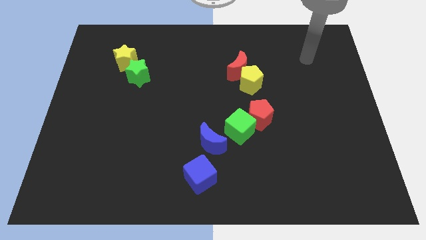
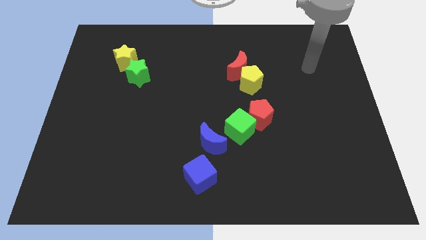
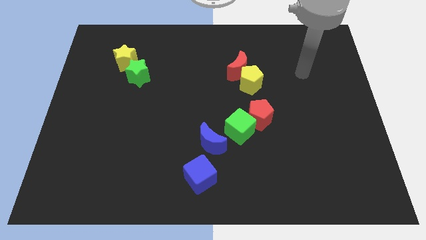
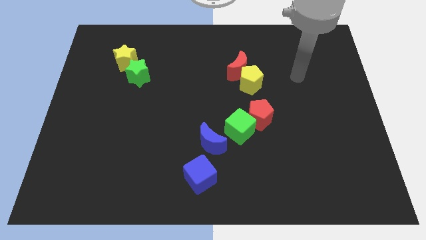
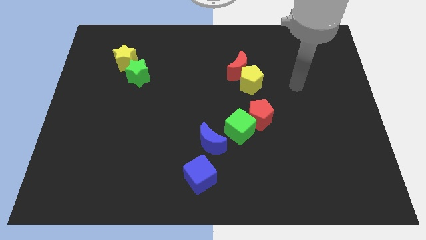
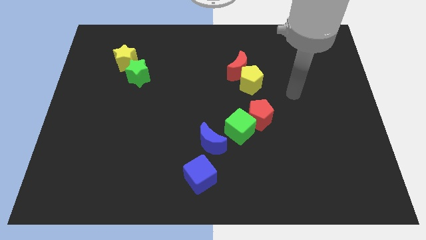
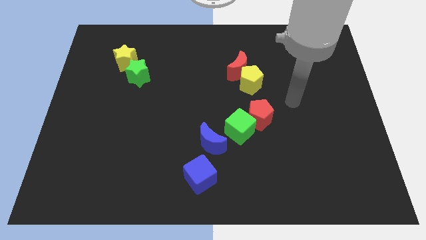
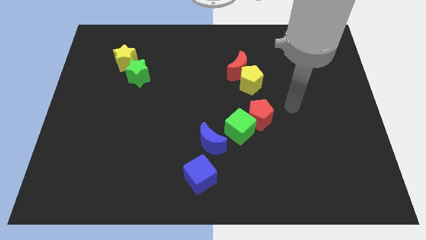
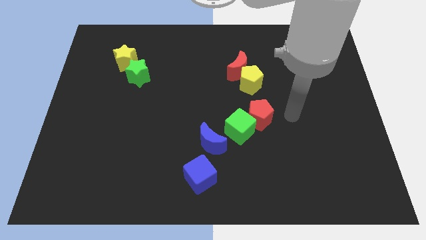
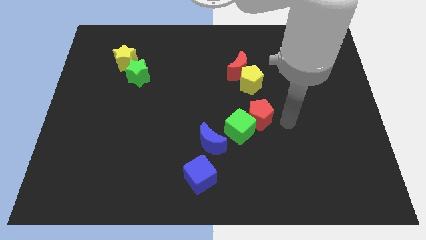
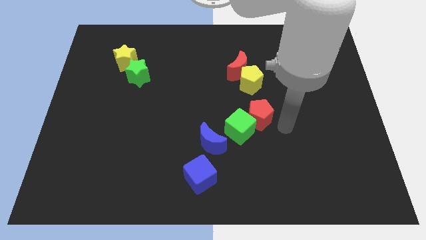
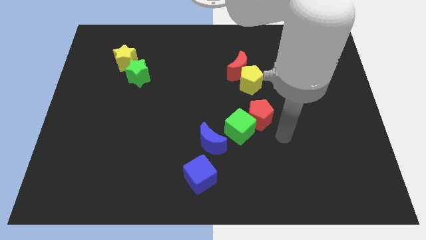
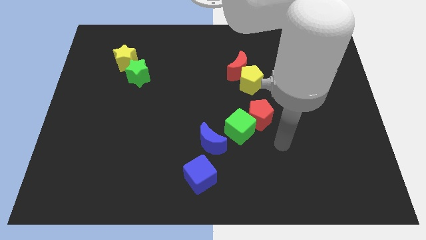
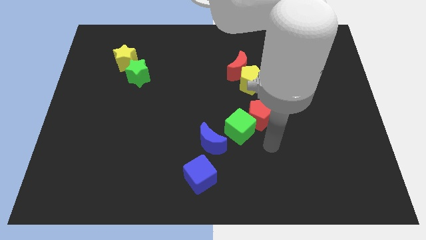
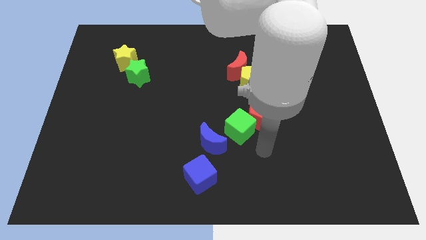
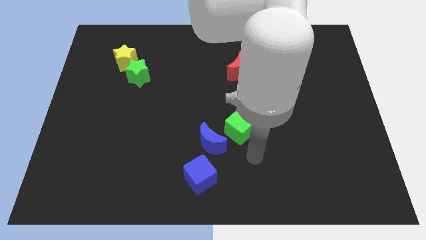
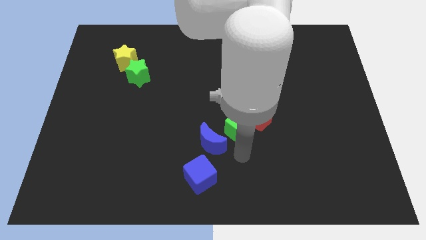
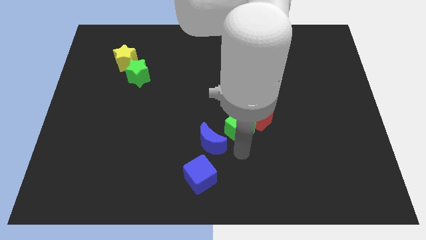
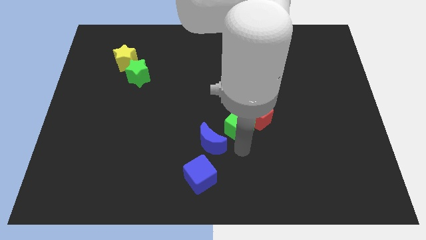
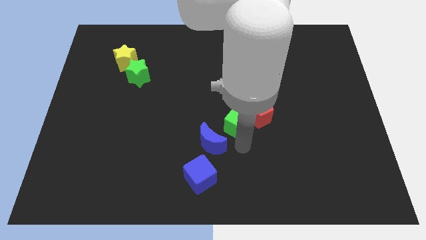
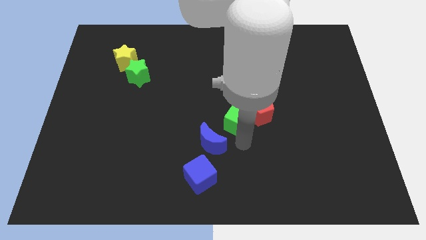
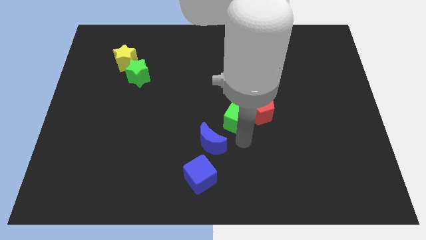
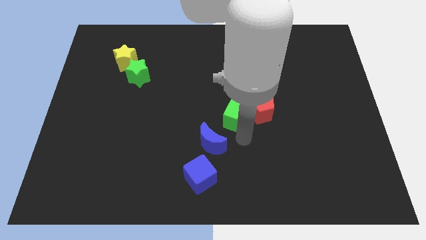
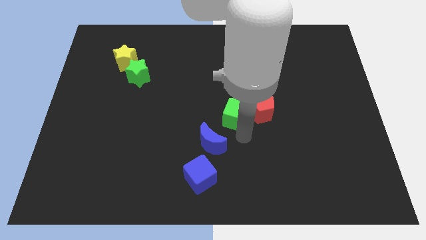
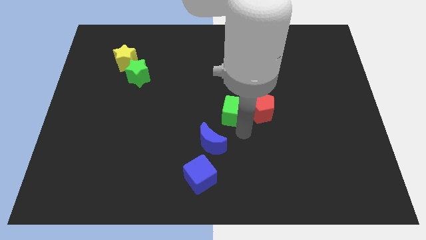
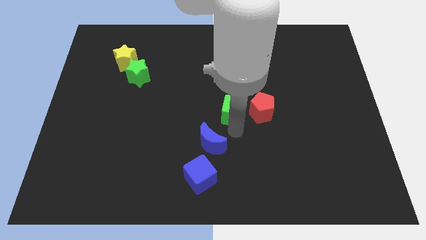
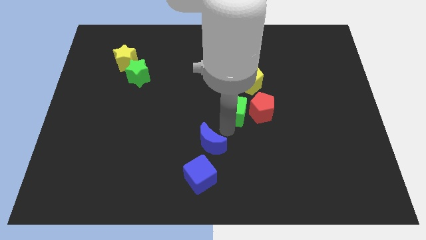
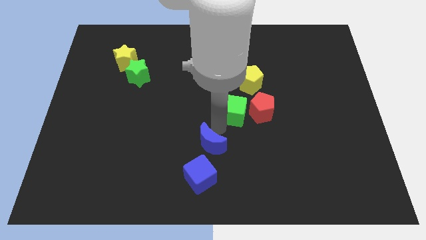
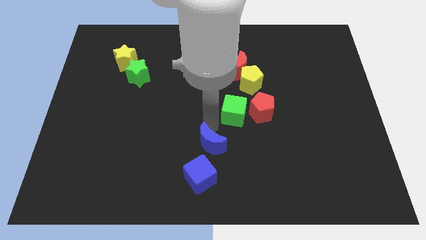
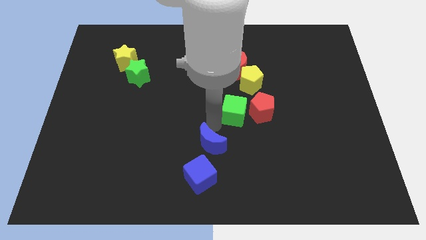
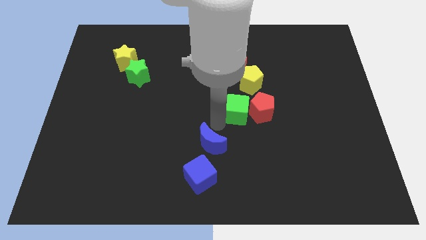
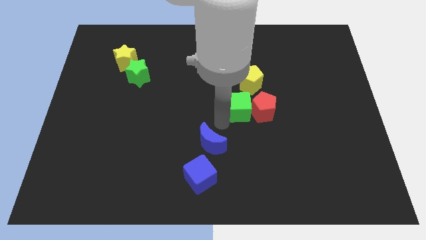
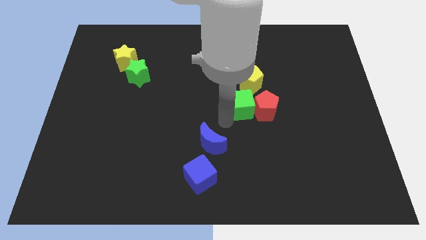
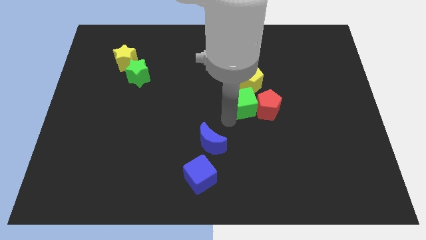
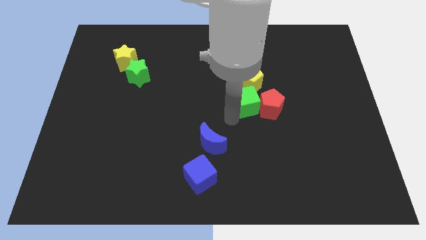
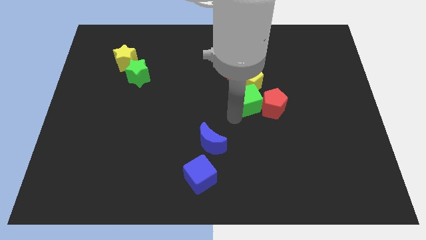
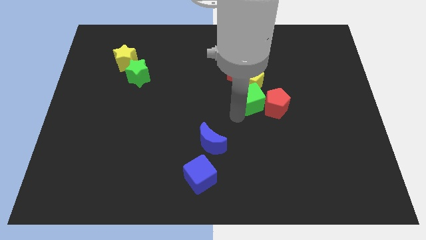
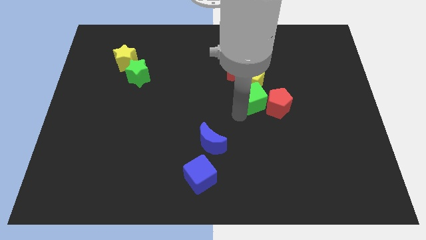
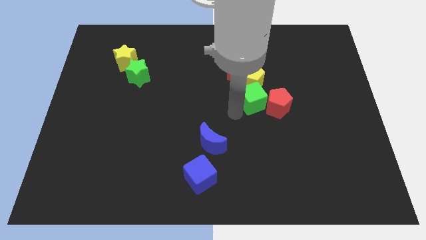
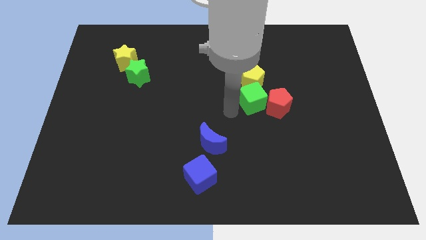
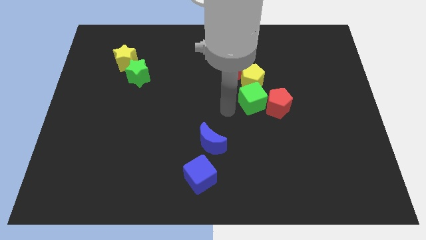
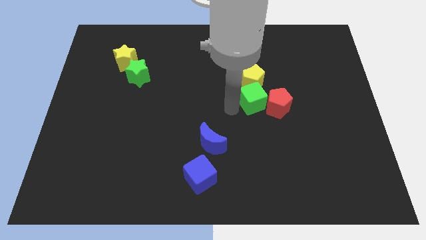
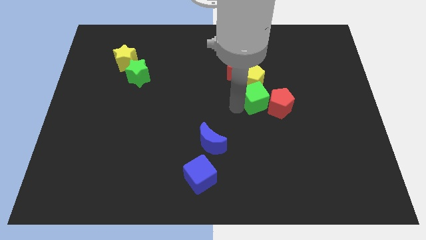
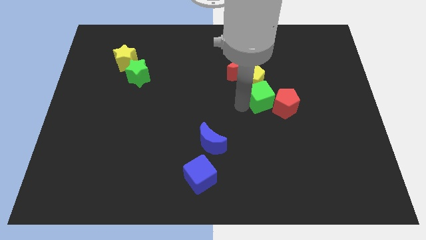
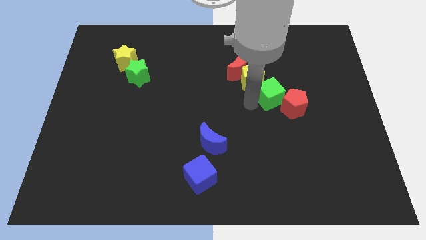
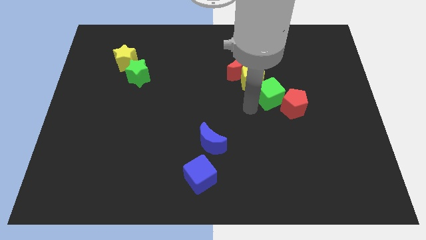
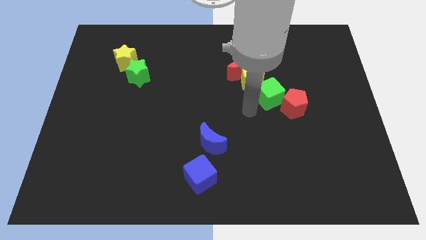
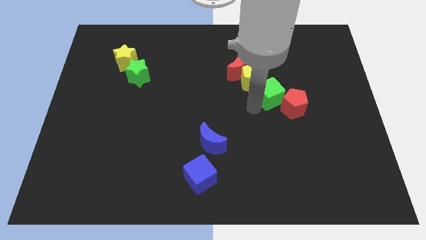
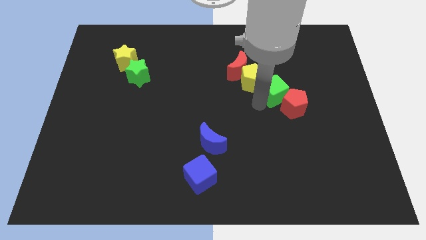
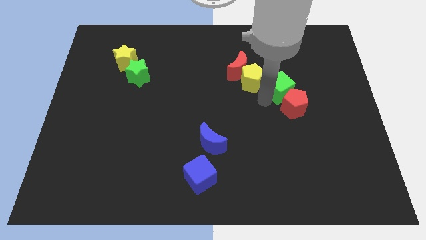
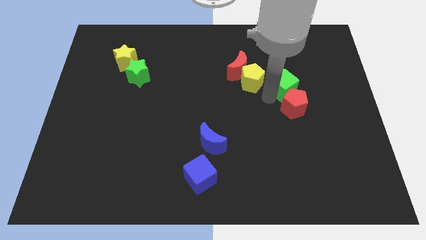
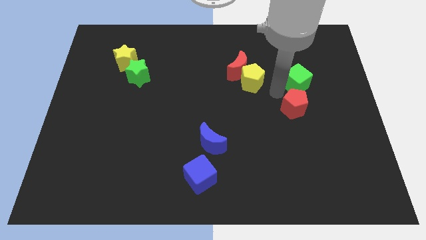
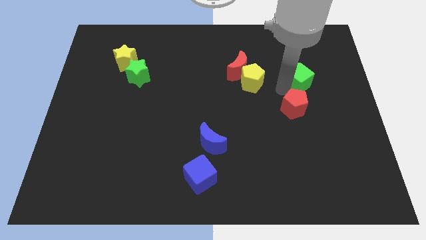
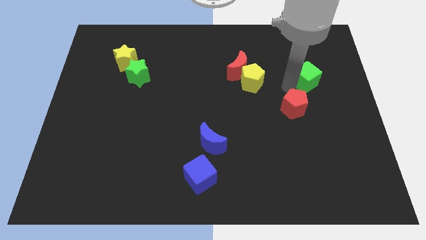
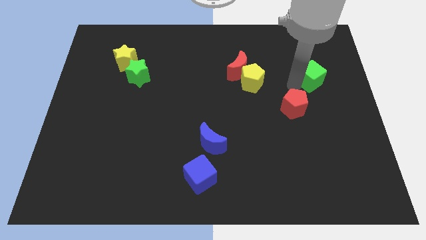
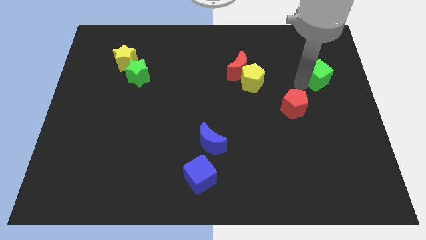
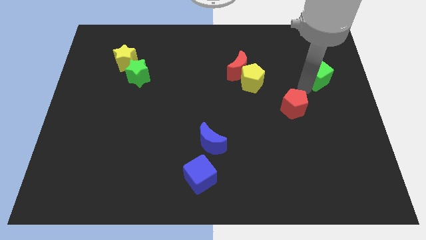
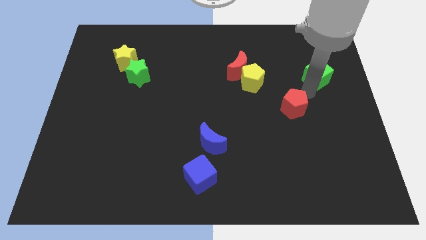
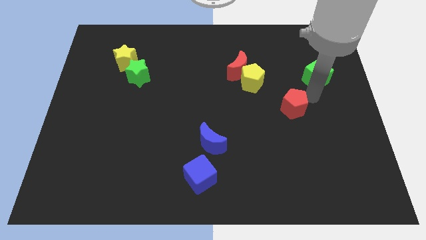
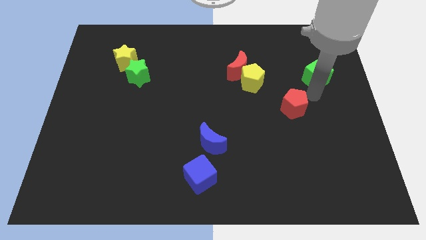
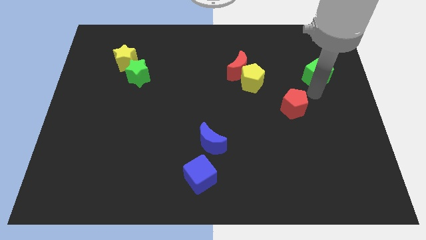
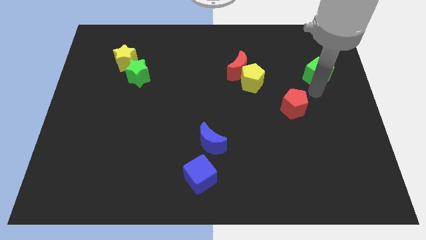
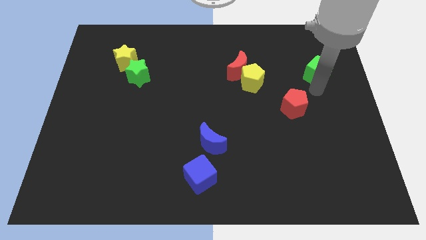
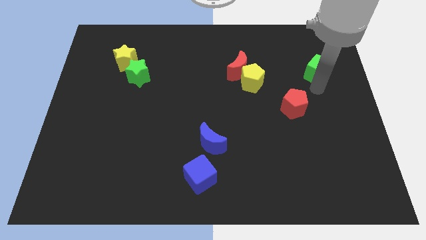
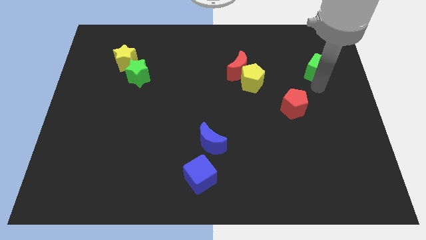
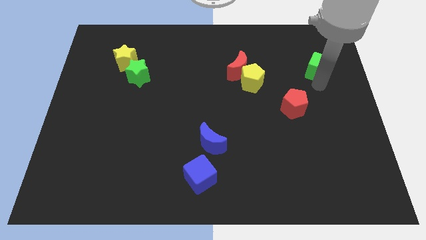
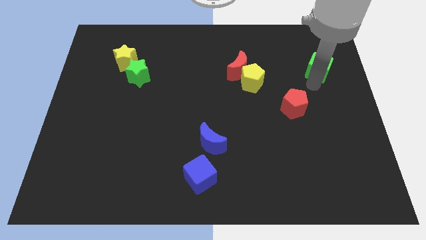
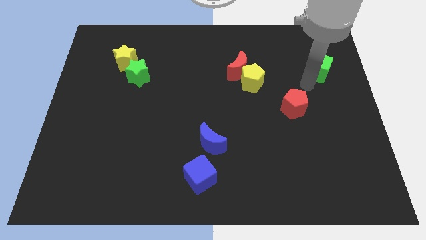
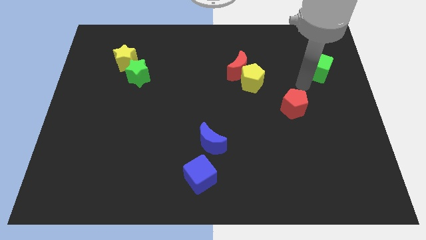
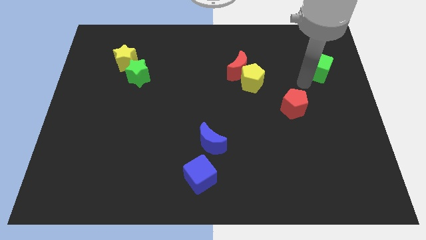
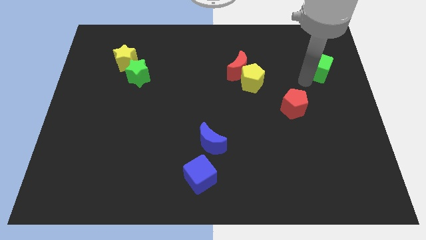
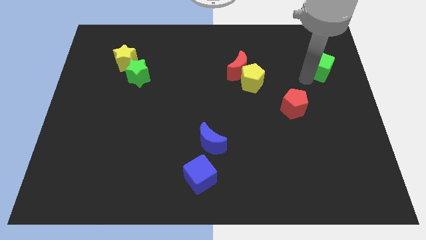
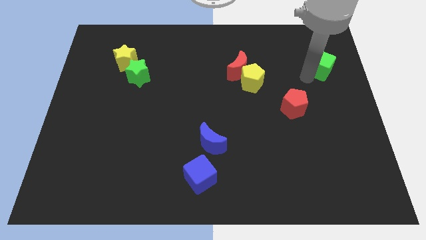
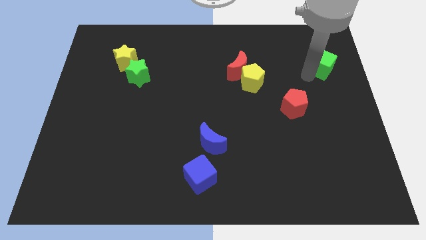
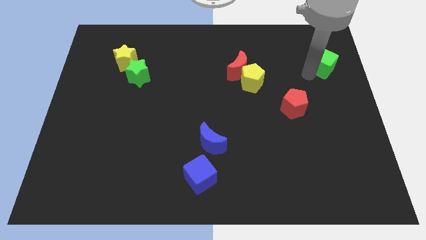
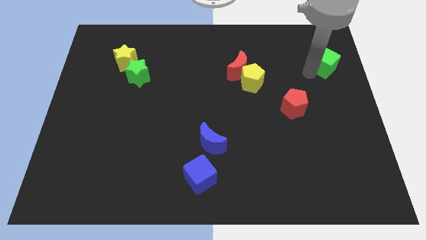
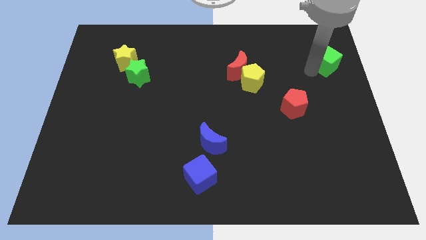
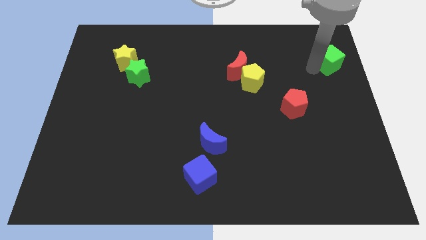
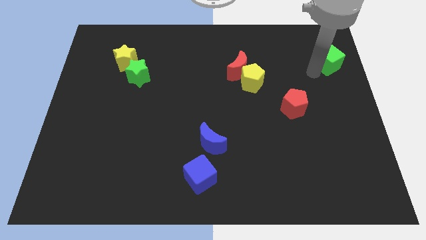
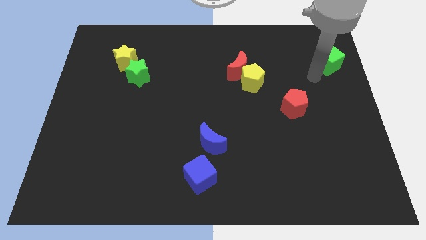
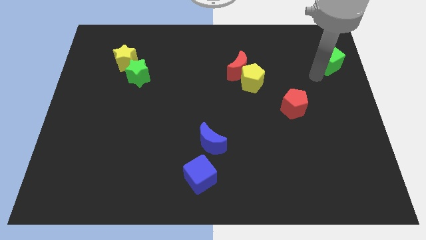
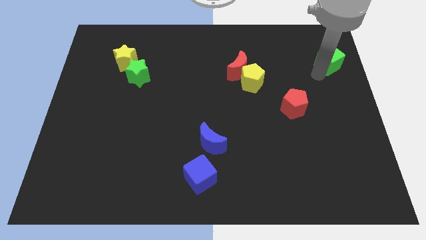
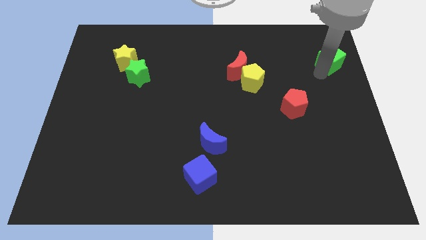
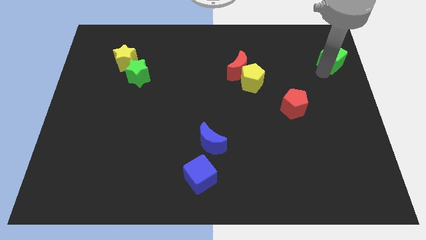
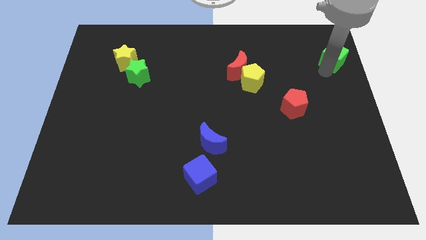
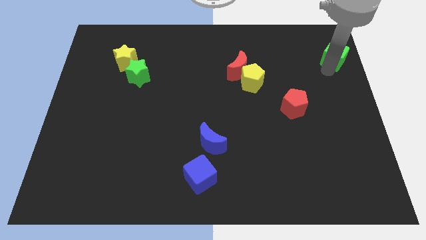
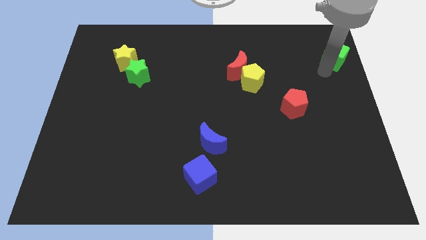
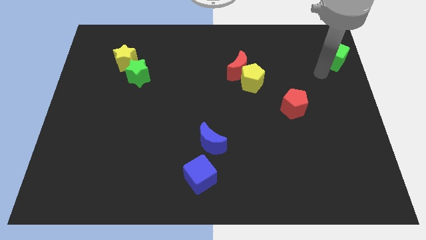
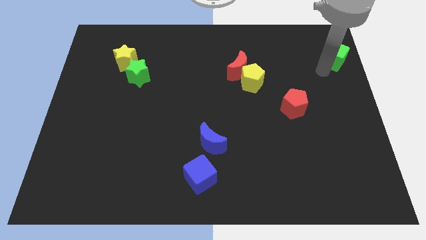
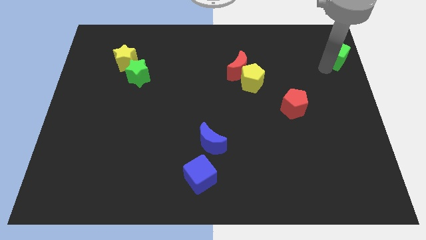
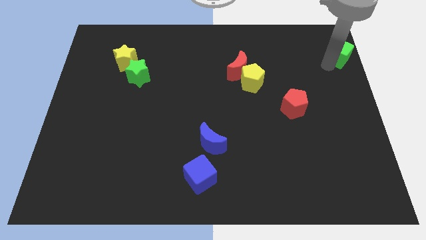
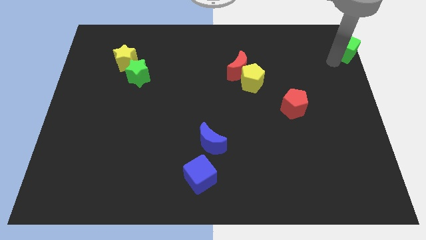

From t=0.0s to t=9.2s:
put the green cube to the top right corner
